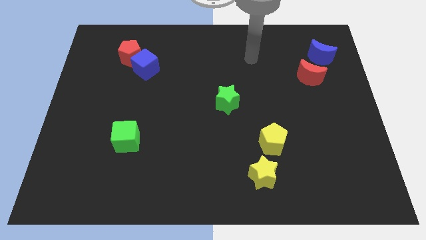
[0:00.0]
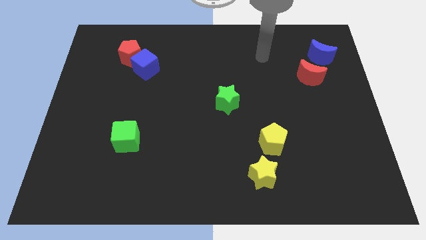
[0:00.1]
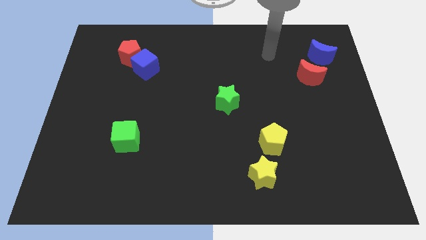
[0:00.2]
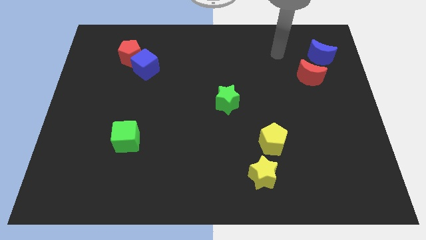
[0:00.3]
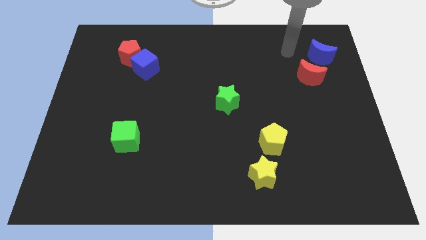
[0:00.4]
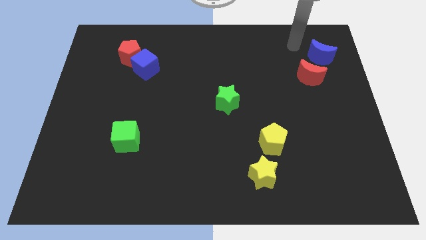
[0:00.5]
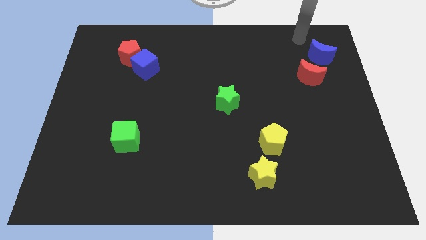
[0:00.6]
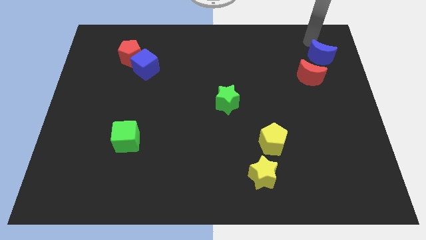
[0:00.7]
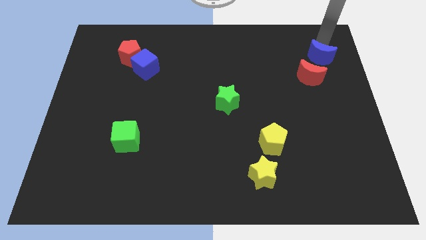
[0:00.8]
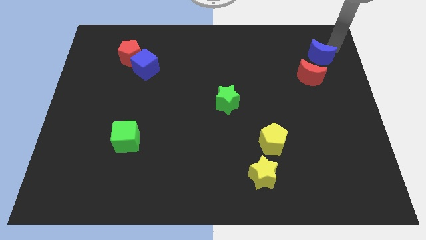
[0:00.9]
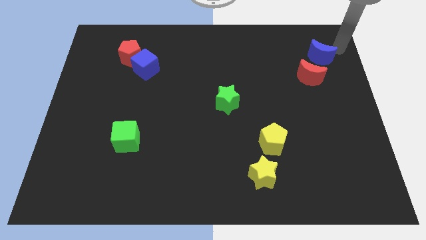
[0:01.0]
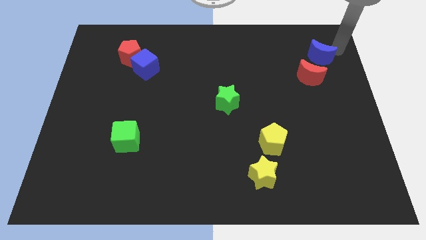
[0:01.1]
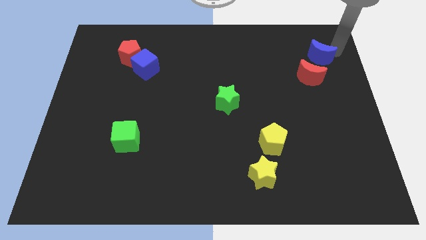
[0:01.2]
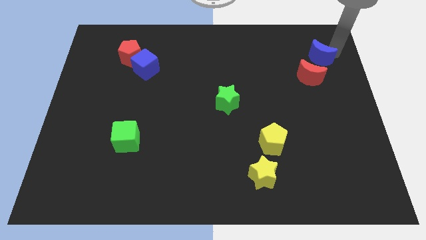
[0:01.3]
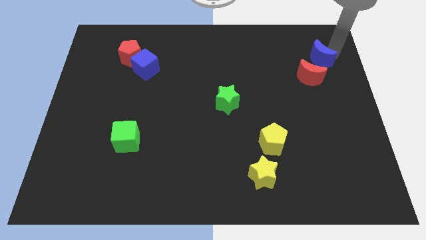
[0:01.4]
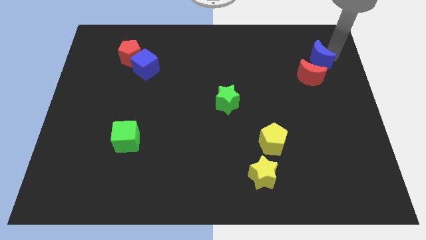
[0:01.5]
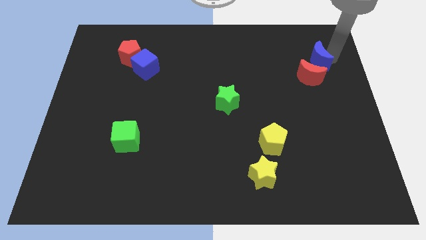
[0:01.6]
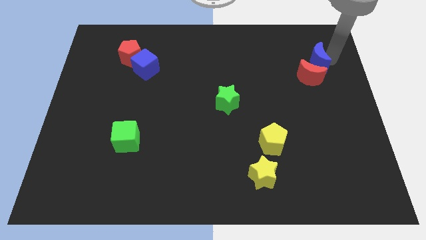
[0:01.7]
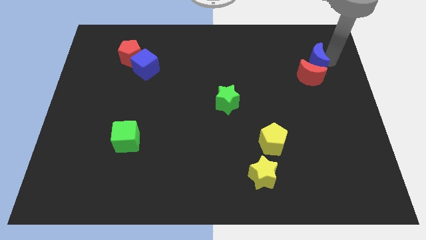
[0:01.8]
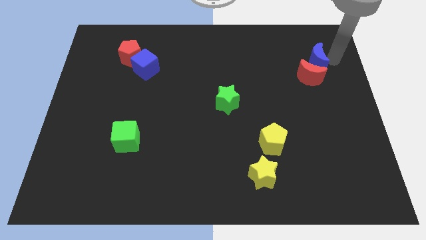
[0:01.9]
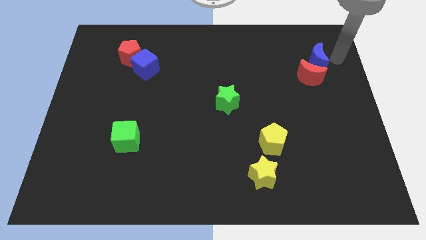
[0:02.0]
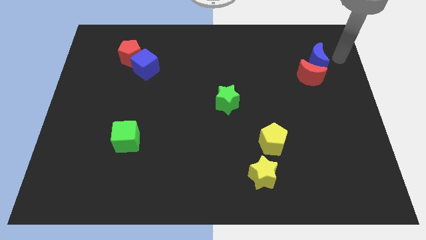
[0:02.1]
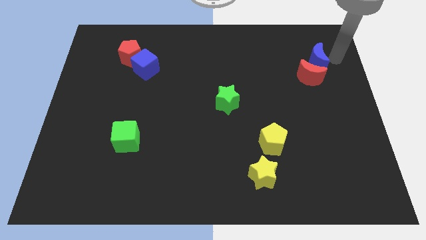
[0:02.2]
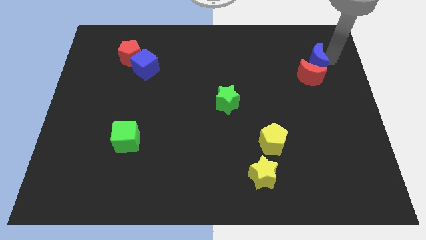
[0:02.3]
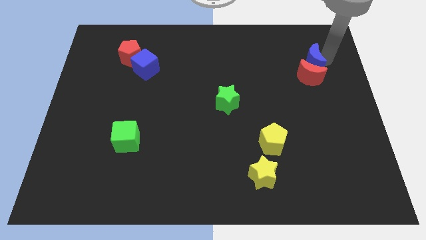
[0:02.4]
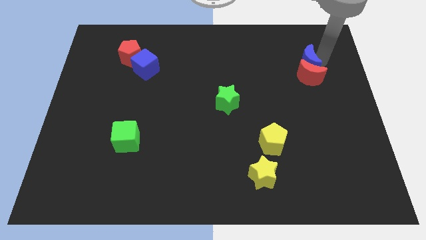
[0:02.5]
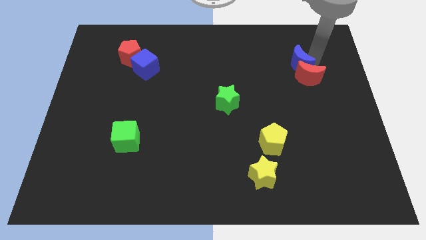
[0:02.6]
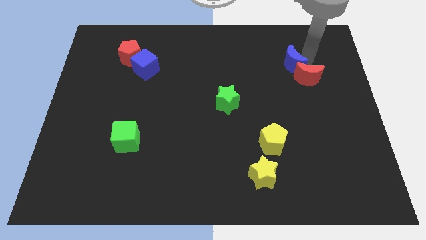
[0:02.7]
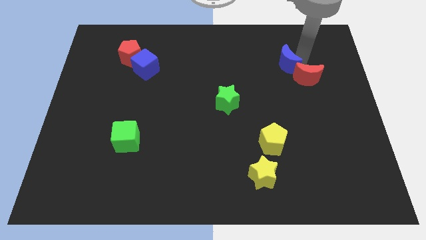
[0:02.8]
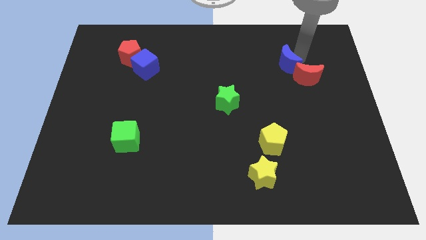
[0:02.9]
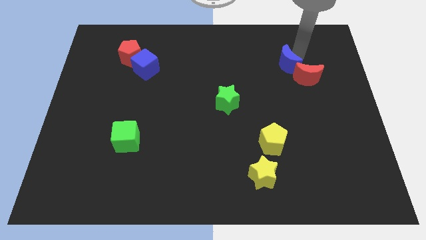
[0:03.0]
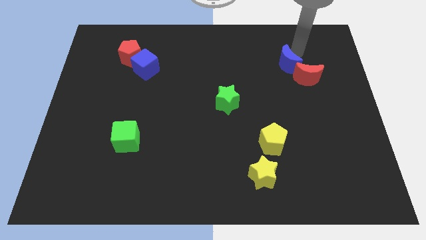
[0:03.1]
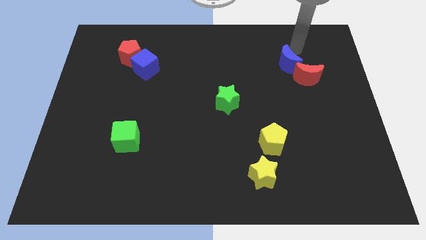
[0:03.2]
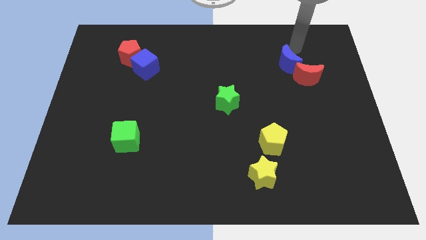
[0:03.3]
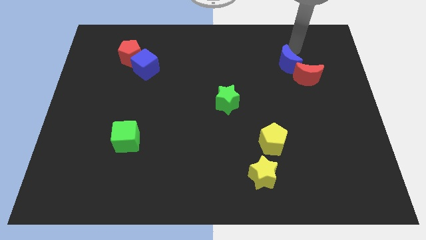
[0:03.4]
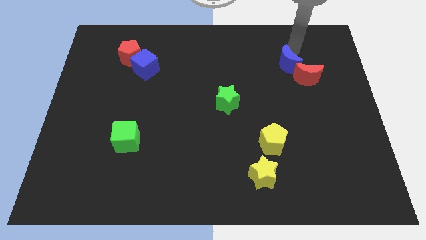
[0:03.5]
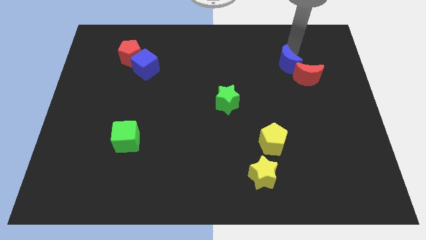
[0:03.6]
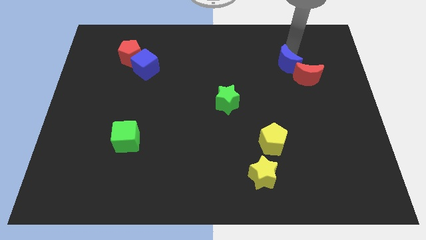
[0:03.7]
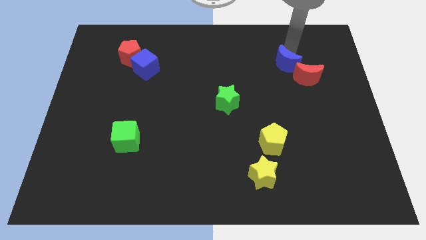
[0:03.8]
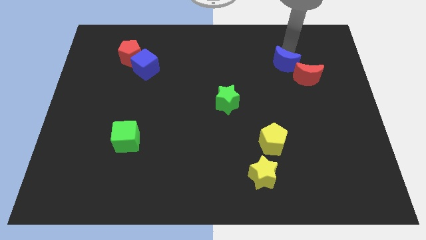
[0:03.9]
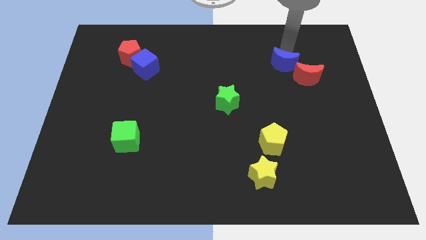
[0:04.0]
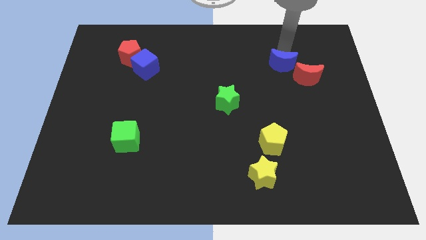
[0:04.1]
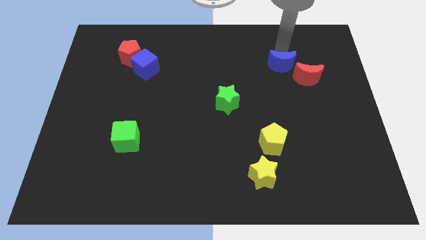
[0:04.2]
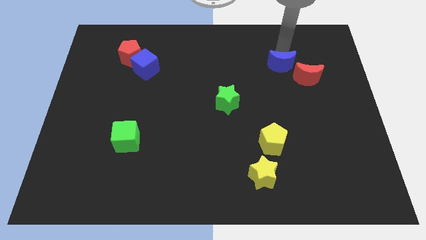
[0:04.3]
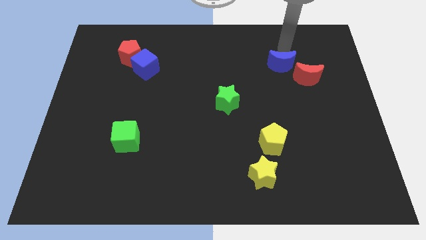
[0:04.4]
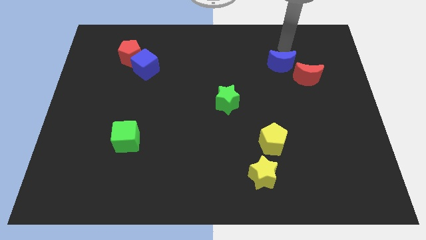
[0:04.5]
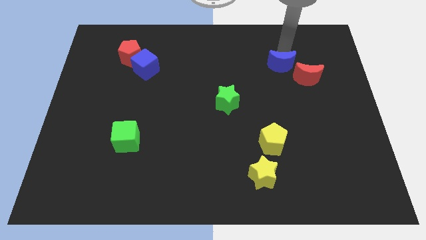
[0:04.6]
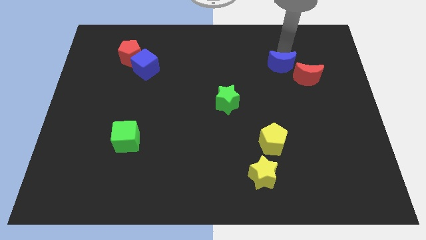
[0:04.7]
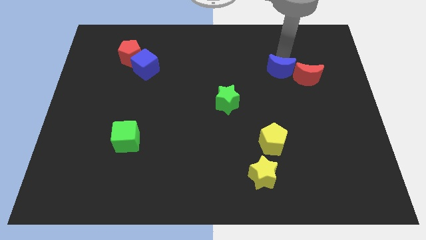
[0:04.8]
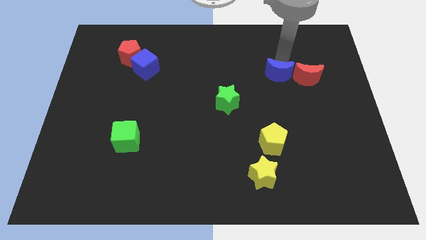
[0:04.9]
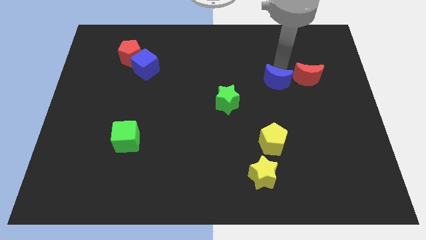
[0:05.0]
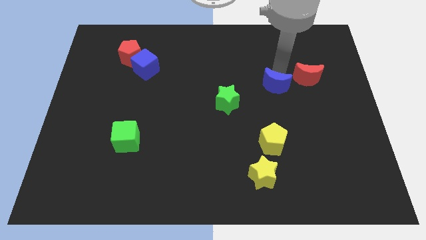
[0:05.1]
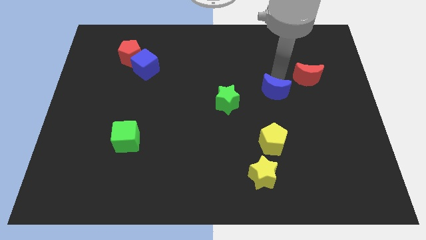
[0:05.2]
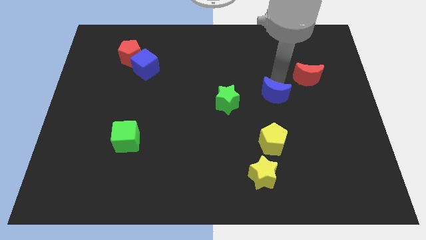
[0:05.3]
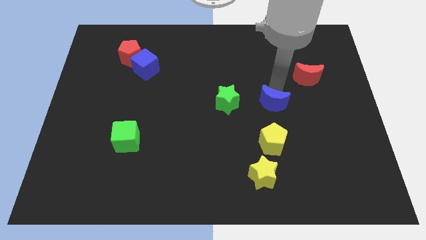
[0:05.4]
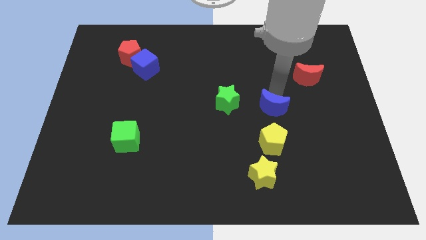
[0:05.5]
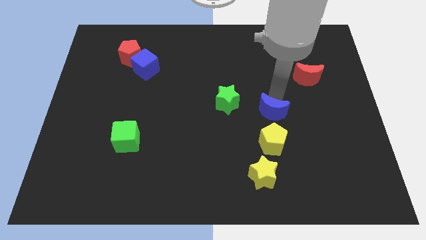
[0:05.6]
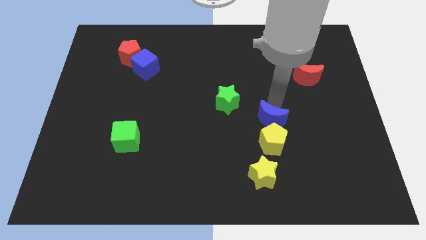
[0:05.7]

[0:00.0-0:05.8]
move the blue moon to the top of the yellow star
